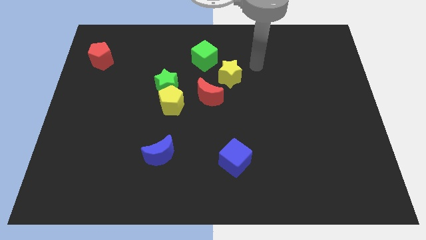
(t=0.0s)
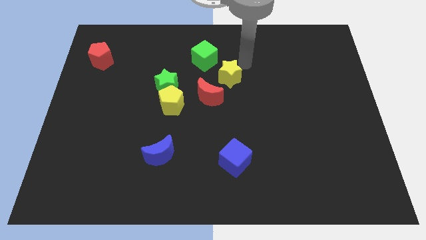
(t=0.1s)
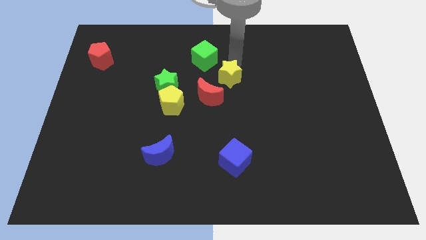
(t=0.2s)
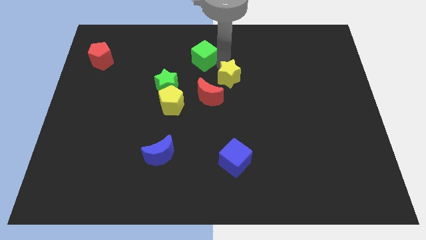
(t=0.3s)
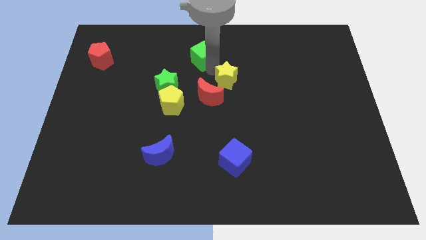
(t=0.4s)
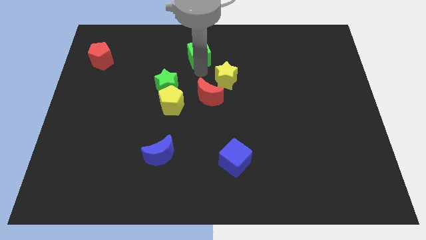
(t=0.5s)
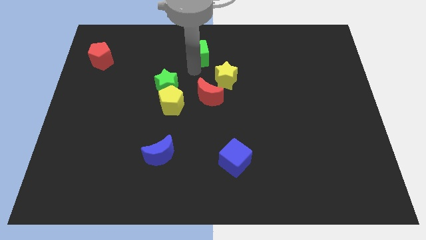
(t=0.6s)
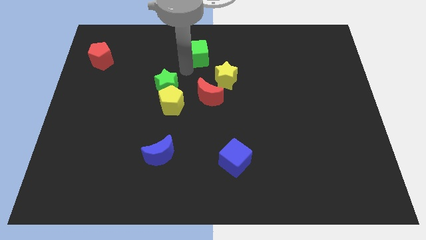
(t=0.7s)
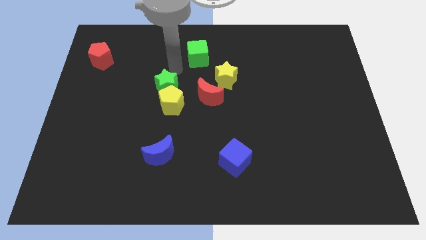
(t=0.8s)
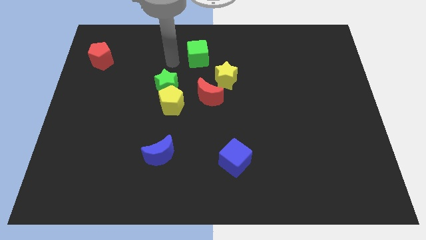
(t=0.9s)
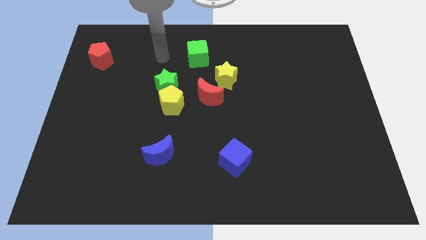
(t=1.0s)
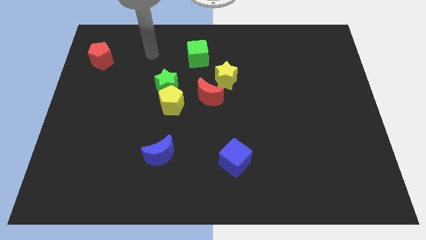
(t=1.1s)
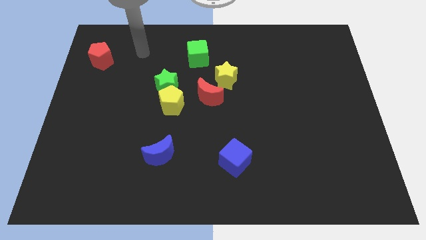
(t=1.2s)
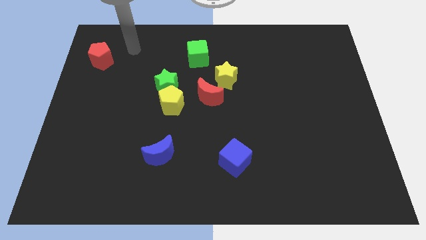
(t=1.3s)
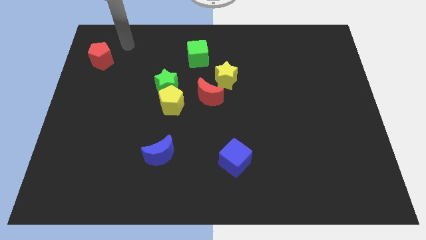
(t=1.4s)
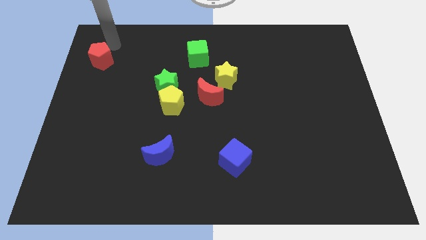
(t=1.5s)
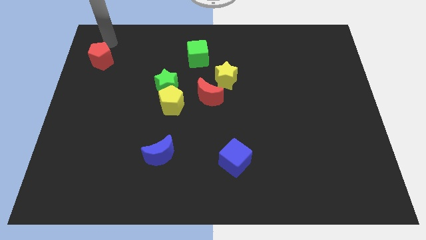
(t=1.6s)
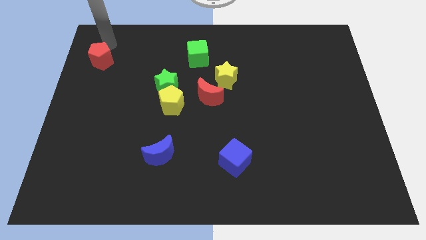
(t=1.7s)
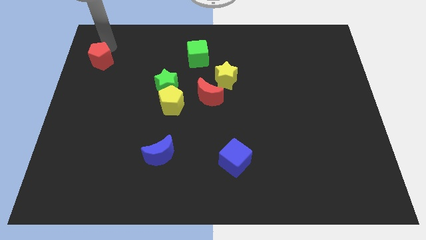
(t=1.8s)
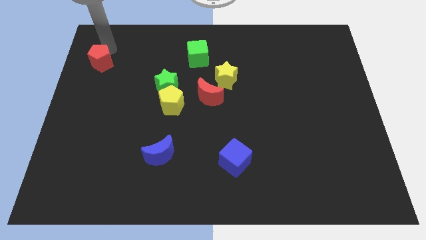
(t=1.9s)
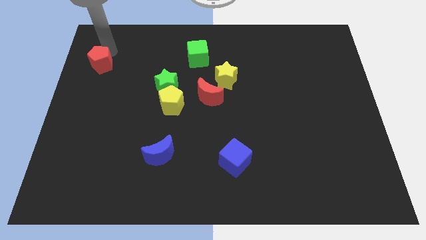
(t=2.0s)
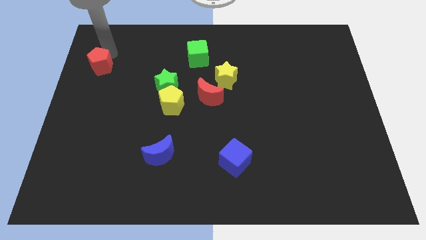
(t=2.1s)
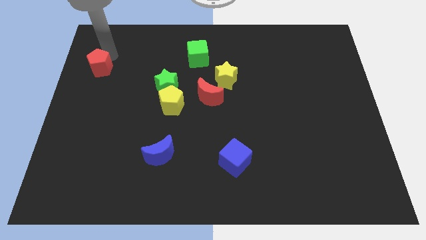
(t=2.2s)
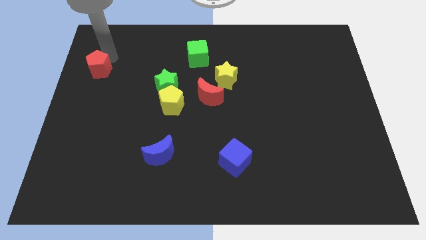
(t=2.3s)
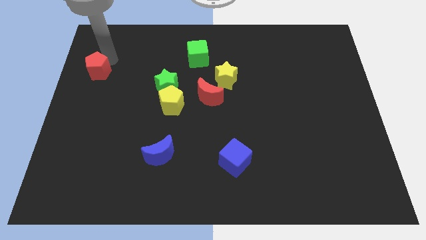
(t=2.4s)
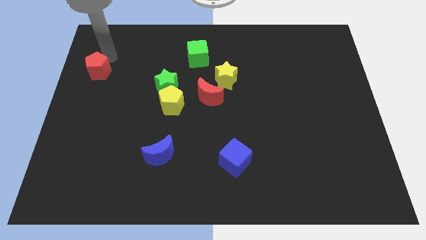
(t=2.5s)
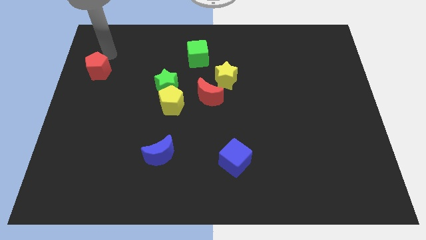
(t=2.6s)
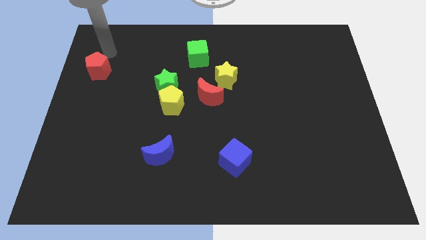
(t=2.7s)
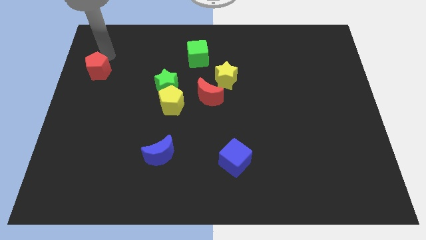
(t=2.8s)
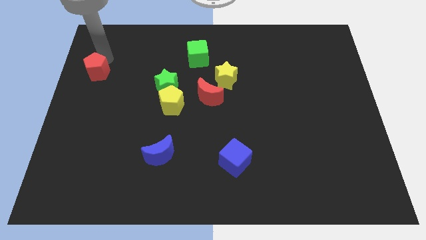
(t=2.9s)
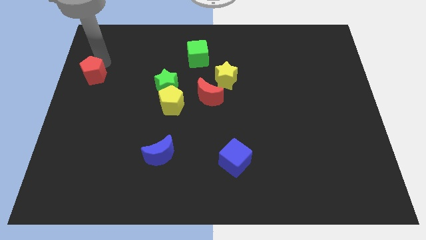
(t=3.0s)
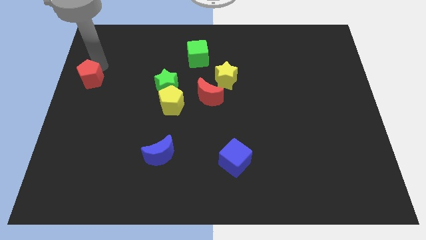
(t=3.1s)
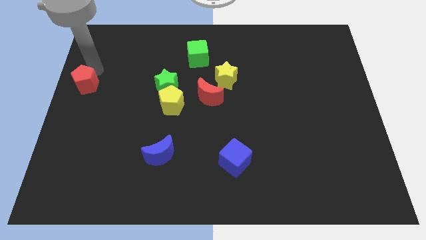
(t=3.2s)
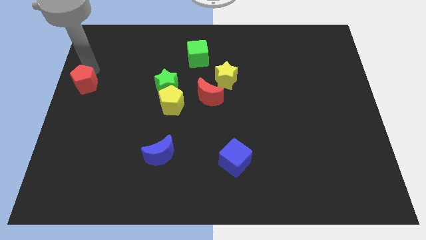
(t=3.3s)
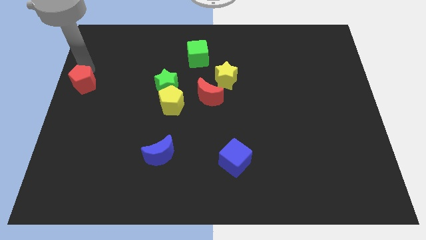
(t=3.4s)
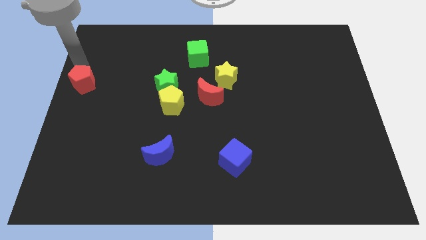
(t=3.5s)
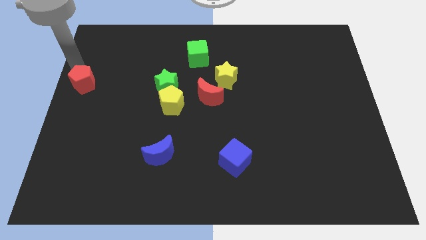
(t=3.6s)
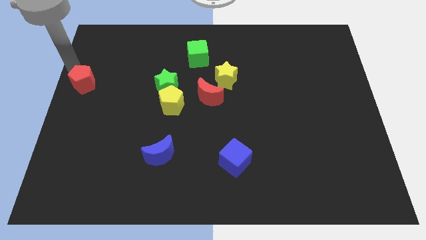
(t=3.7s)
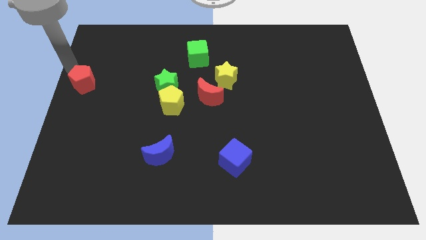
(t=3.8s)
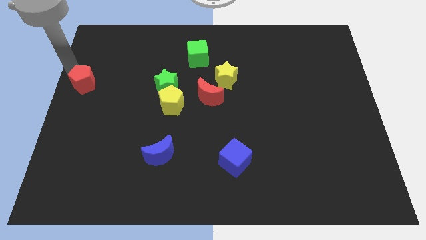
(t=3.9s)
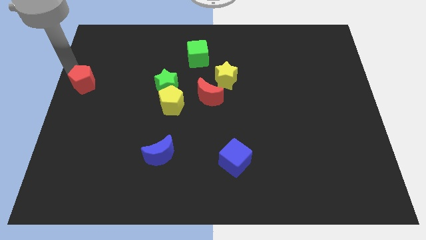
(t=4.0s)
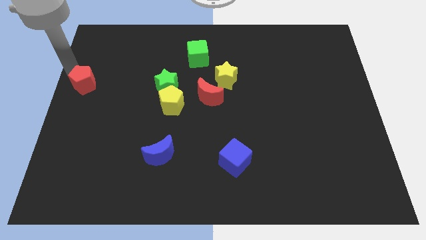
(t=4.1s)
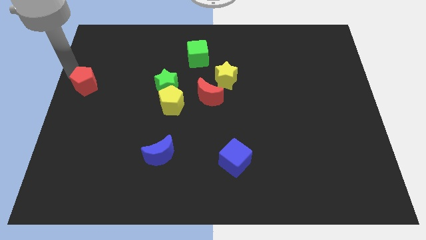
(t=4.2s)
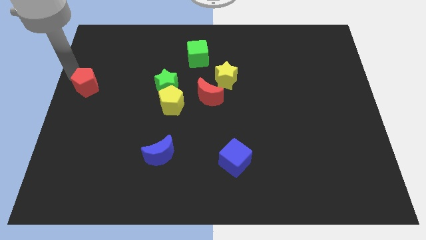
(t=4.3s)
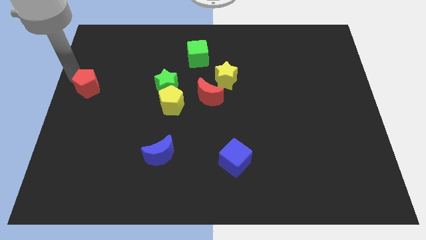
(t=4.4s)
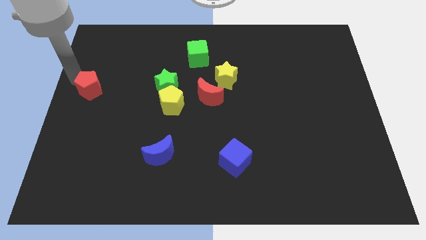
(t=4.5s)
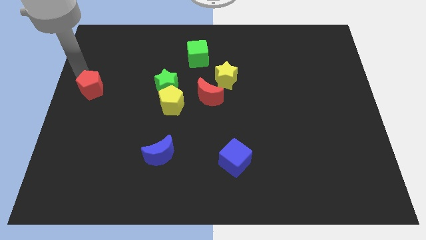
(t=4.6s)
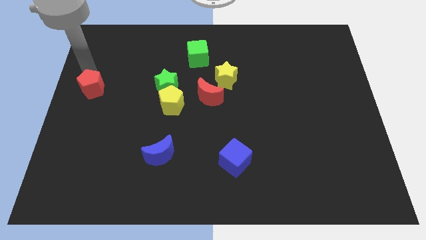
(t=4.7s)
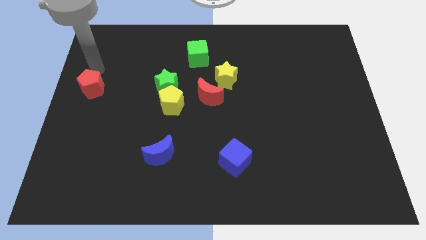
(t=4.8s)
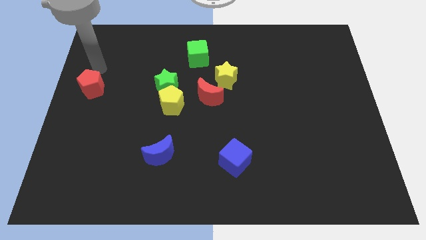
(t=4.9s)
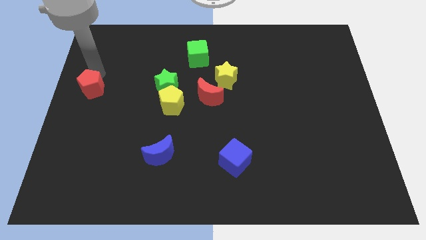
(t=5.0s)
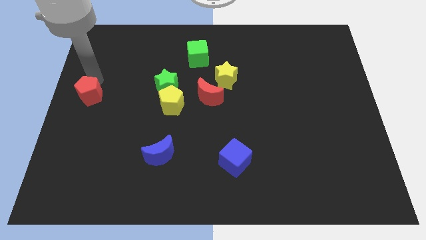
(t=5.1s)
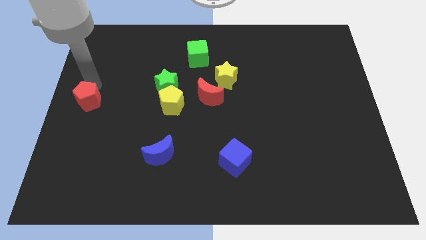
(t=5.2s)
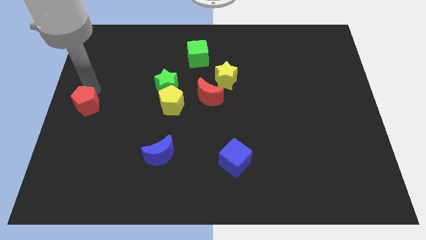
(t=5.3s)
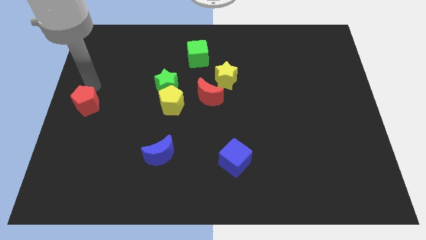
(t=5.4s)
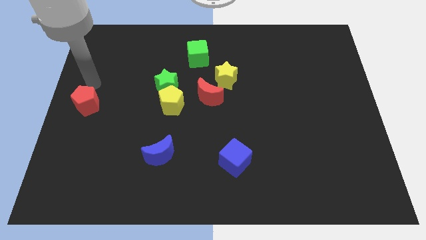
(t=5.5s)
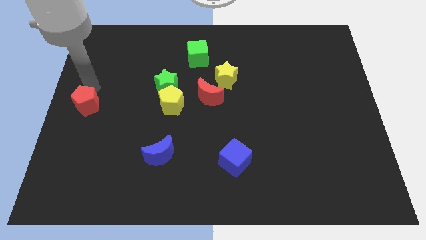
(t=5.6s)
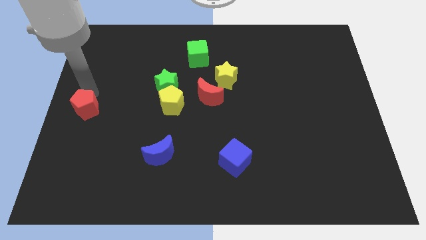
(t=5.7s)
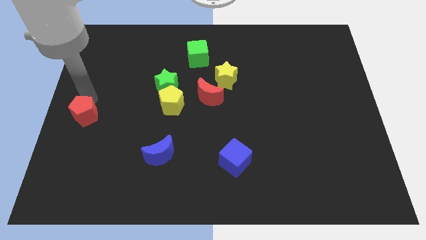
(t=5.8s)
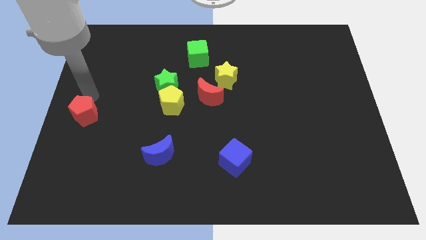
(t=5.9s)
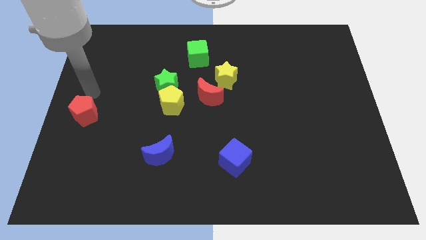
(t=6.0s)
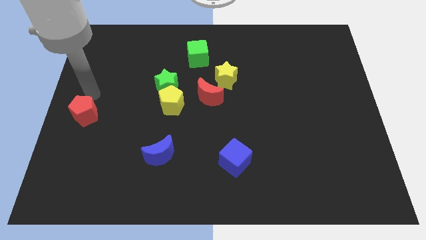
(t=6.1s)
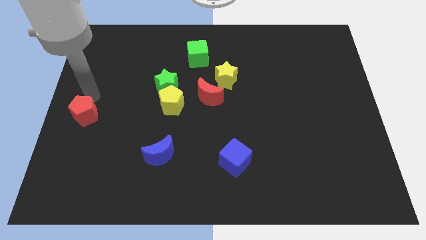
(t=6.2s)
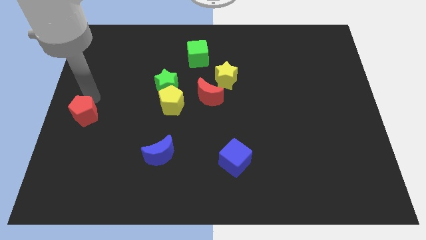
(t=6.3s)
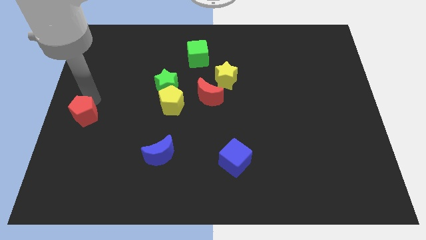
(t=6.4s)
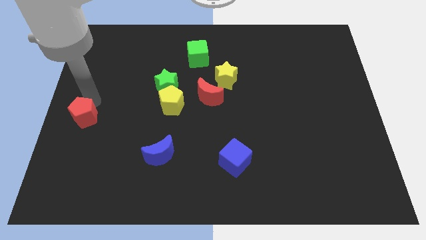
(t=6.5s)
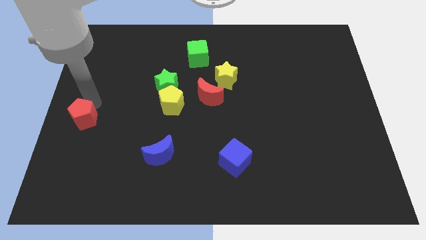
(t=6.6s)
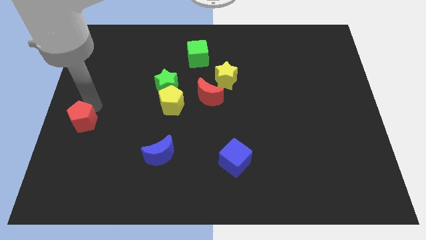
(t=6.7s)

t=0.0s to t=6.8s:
push the red pentagon downwards

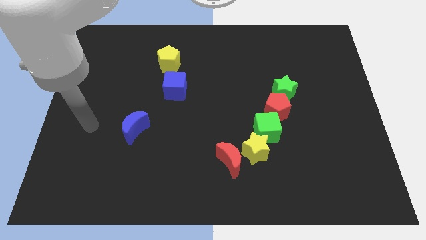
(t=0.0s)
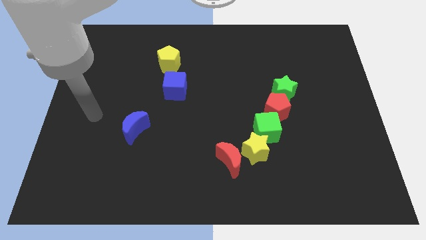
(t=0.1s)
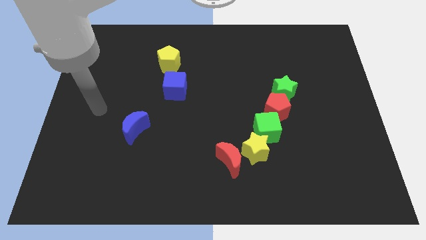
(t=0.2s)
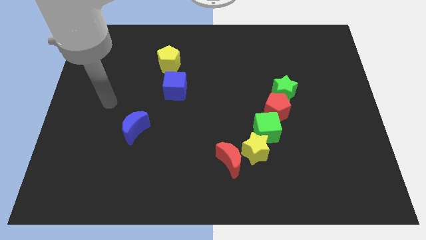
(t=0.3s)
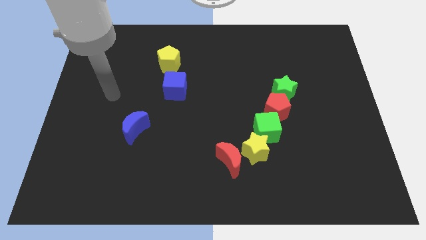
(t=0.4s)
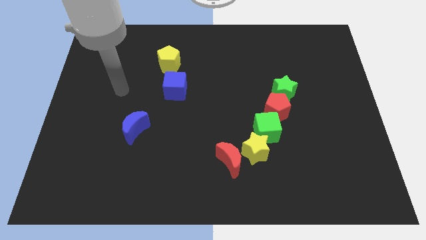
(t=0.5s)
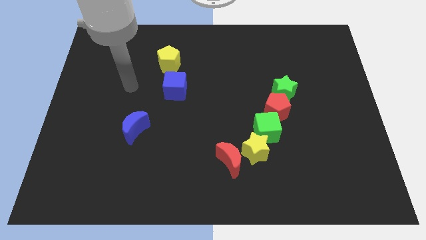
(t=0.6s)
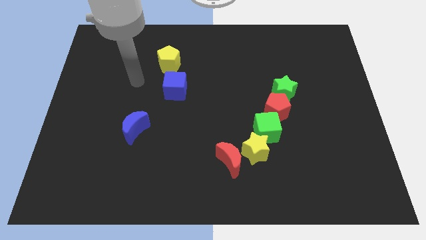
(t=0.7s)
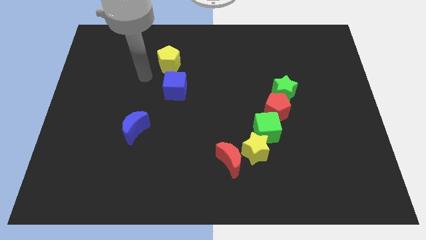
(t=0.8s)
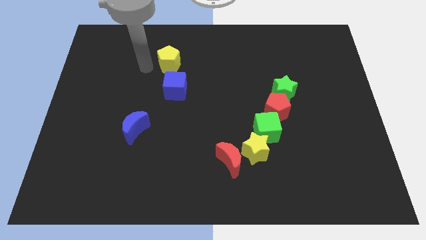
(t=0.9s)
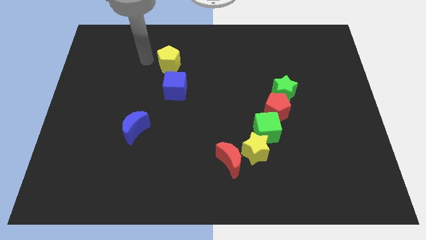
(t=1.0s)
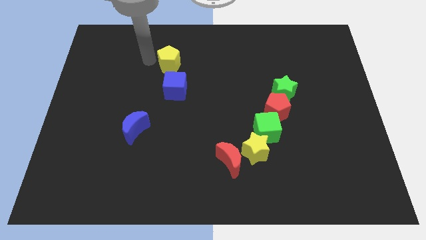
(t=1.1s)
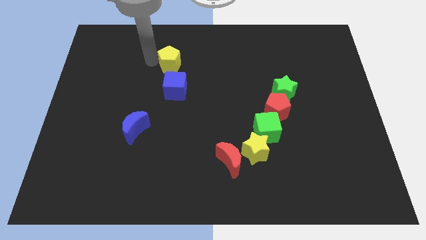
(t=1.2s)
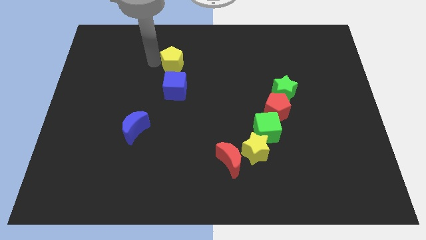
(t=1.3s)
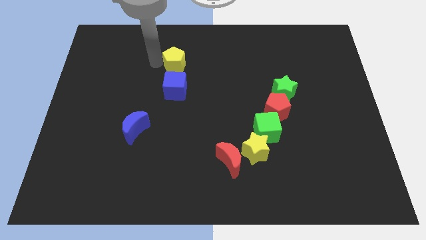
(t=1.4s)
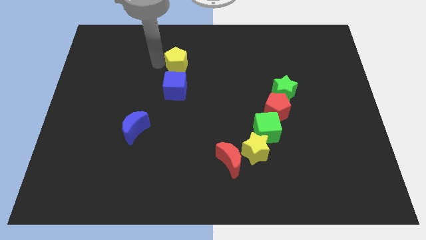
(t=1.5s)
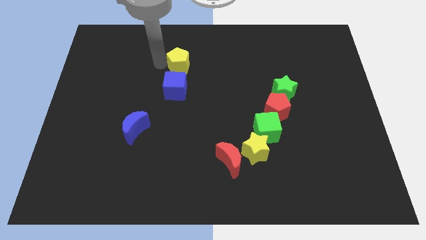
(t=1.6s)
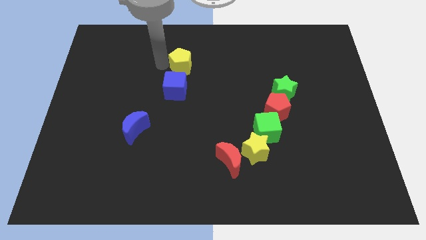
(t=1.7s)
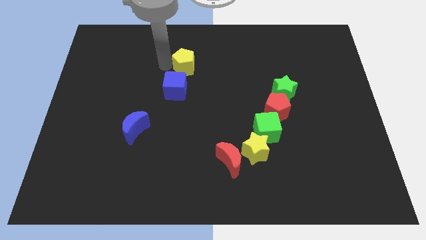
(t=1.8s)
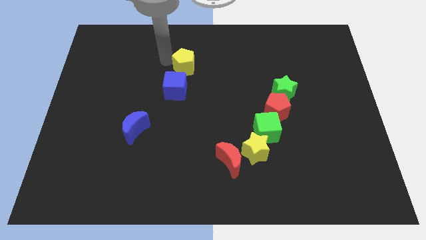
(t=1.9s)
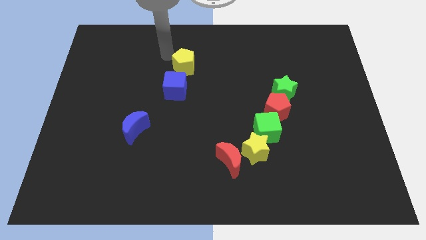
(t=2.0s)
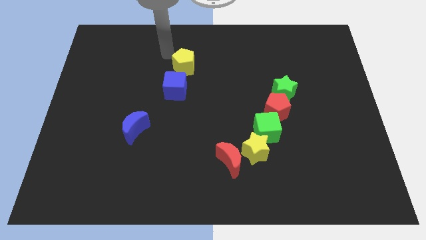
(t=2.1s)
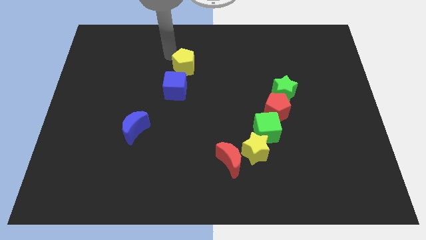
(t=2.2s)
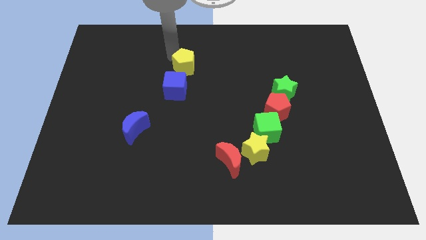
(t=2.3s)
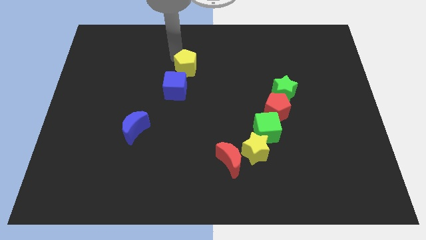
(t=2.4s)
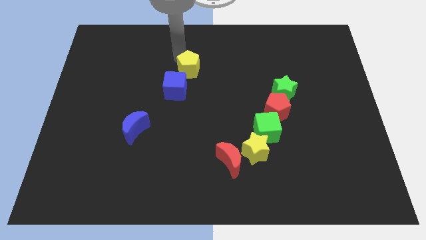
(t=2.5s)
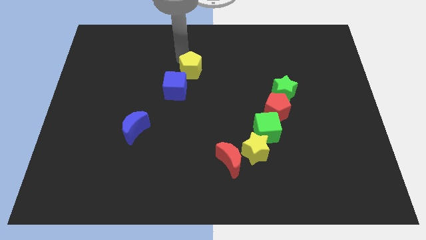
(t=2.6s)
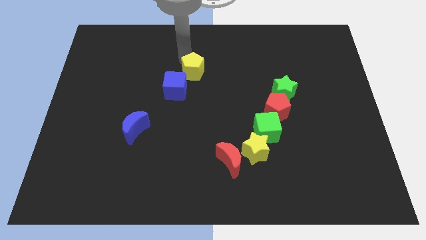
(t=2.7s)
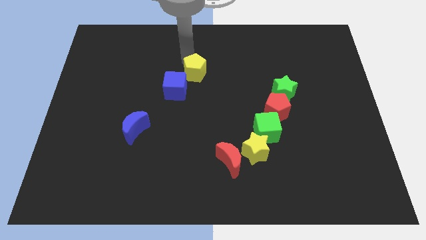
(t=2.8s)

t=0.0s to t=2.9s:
move the yellow pentagon slightly diagonally down and to the right
